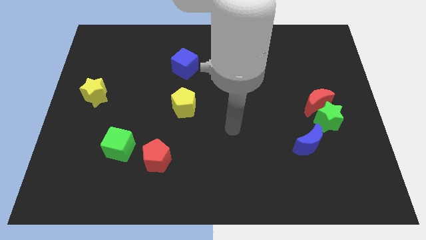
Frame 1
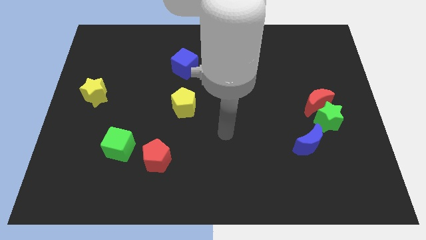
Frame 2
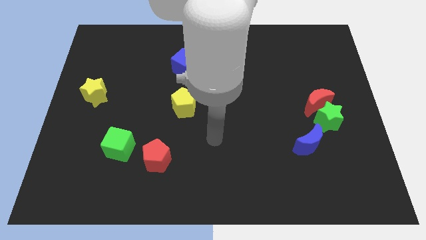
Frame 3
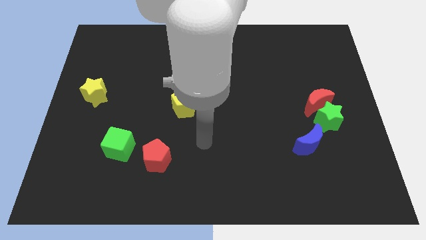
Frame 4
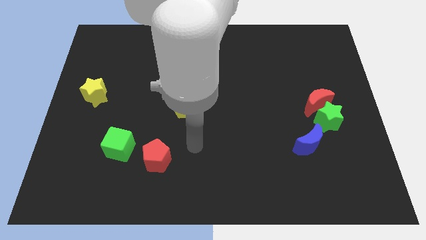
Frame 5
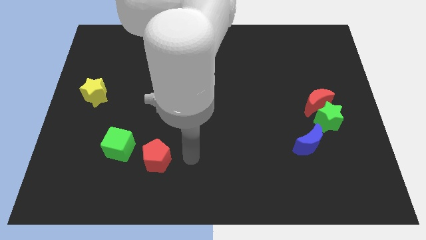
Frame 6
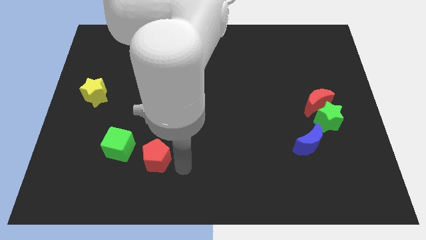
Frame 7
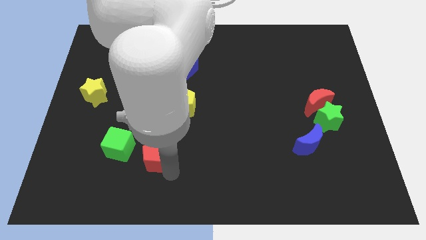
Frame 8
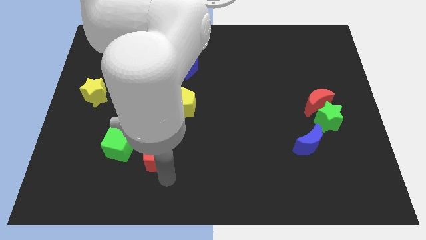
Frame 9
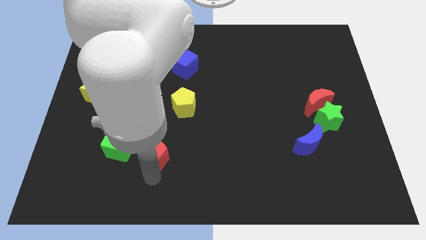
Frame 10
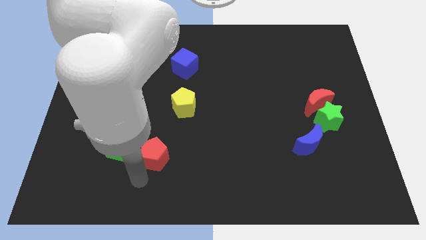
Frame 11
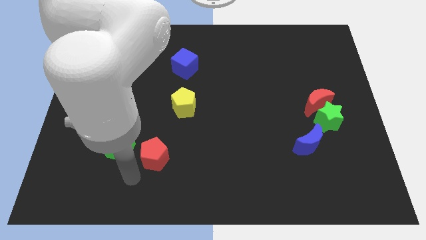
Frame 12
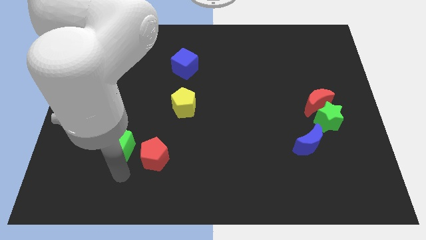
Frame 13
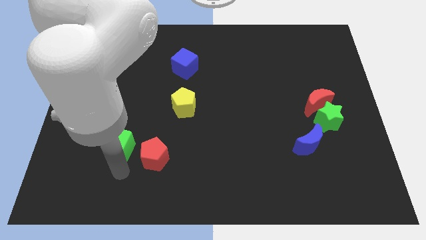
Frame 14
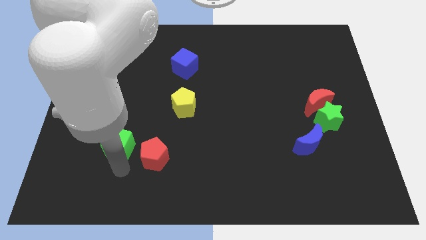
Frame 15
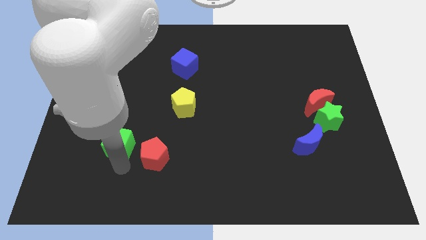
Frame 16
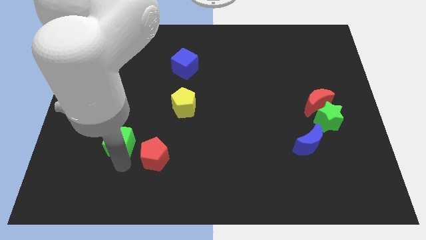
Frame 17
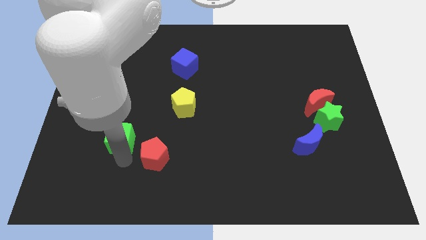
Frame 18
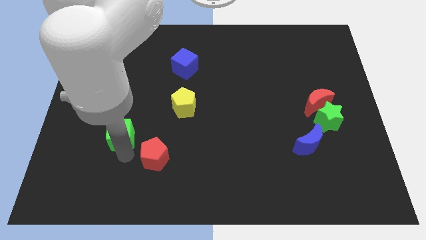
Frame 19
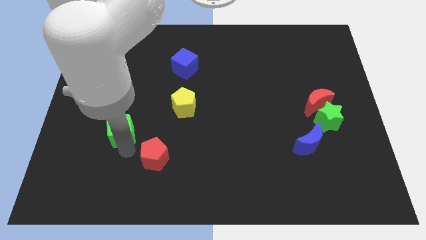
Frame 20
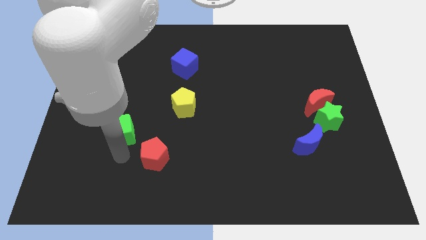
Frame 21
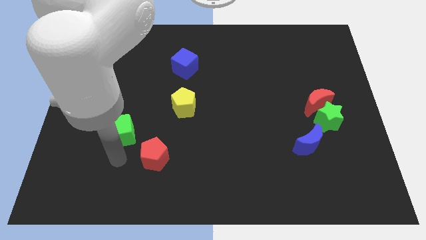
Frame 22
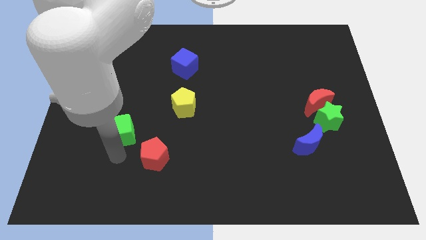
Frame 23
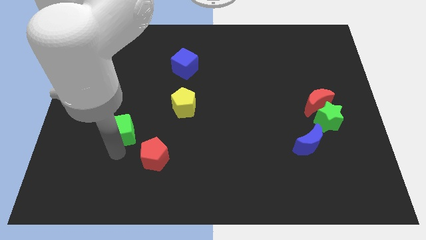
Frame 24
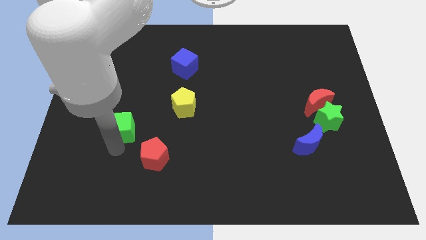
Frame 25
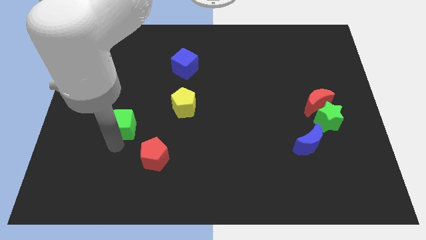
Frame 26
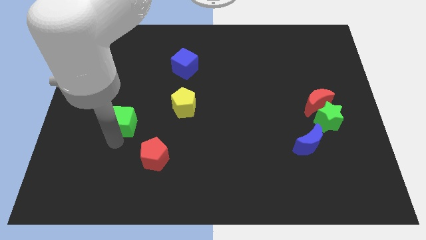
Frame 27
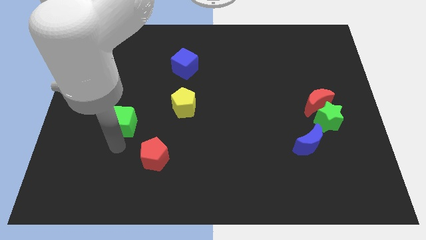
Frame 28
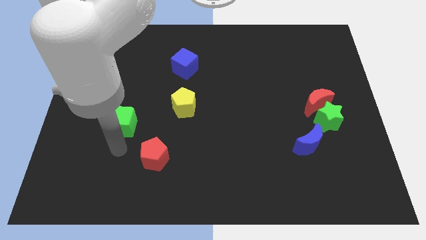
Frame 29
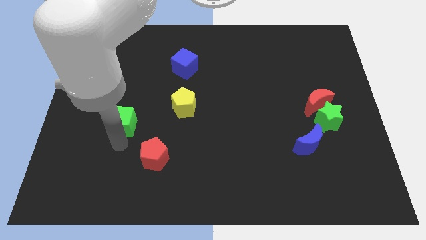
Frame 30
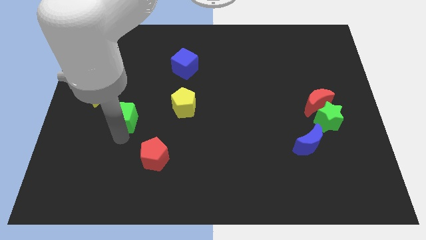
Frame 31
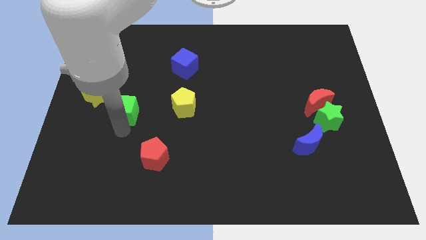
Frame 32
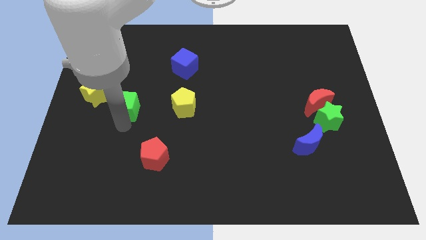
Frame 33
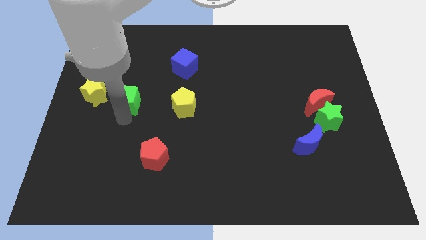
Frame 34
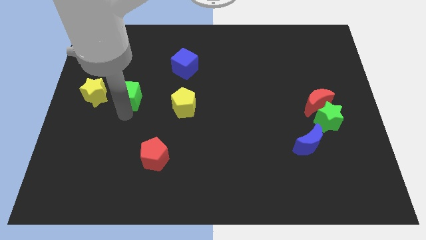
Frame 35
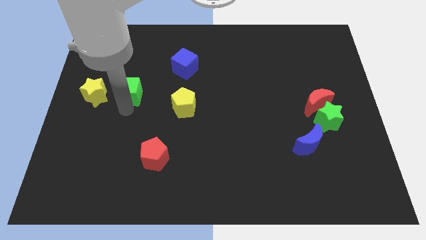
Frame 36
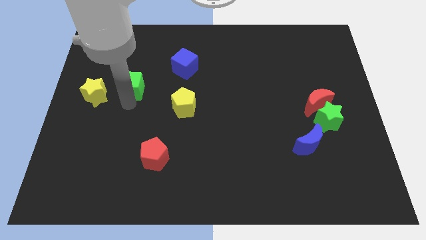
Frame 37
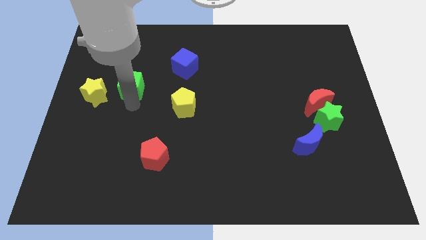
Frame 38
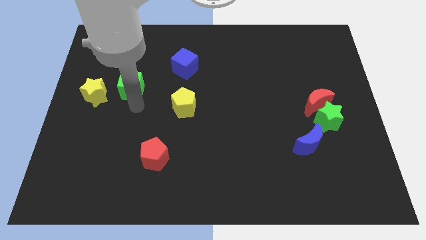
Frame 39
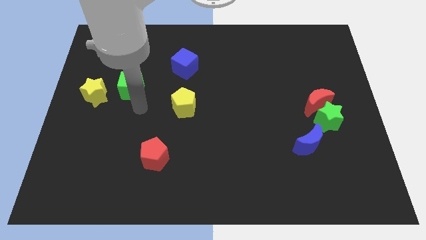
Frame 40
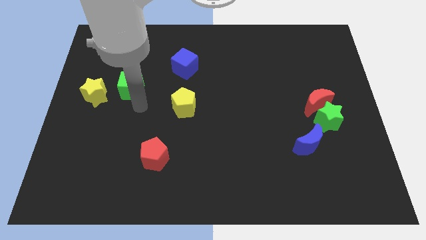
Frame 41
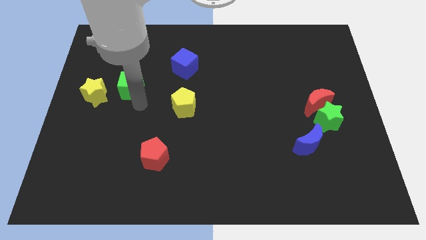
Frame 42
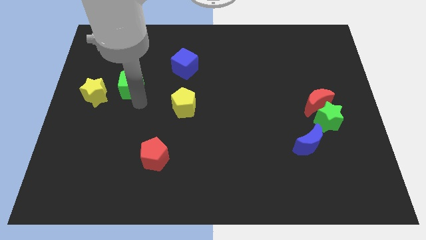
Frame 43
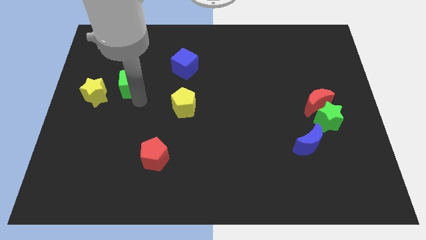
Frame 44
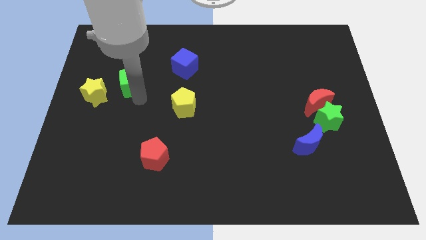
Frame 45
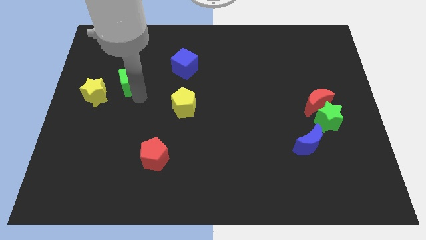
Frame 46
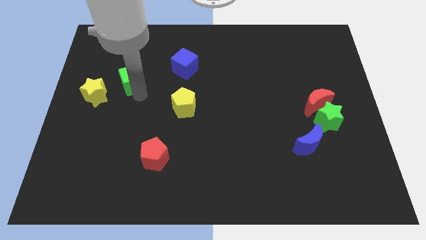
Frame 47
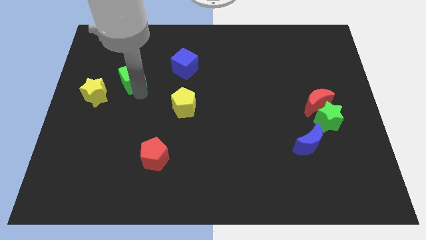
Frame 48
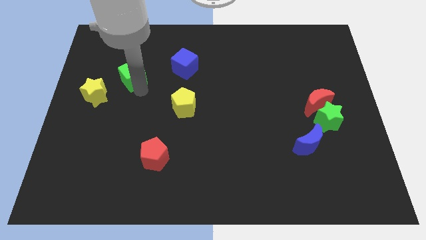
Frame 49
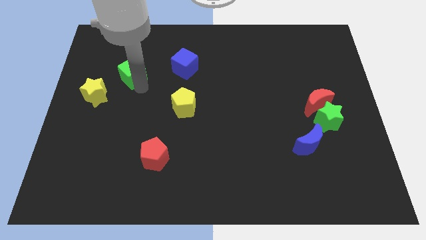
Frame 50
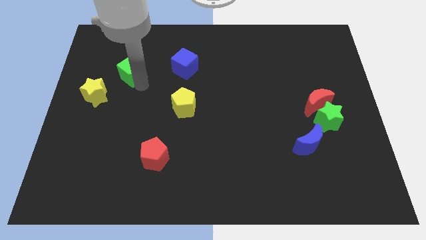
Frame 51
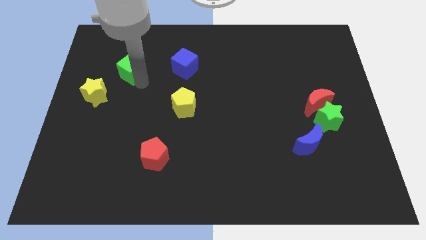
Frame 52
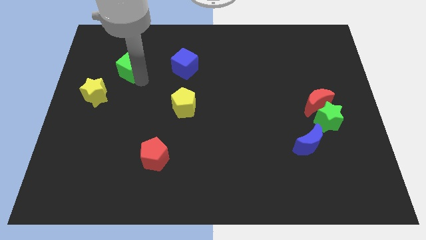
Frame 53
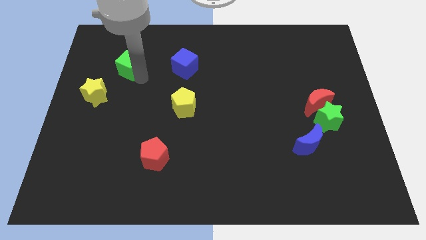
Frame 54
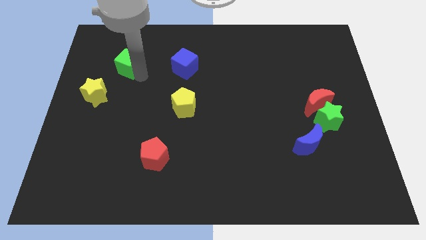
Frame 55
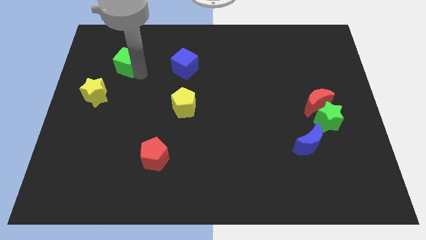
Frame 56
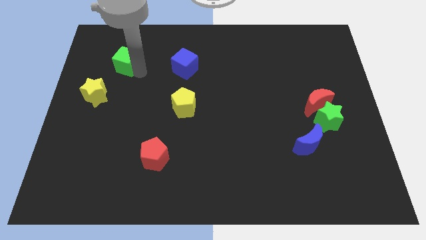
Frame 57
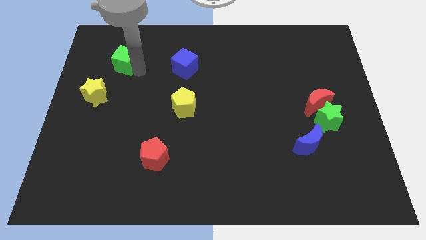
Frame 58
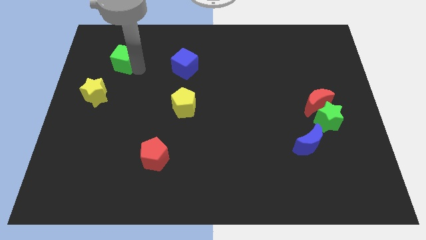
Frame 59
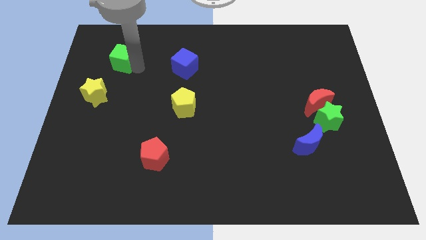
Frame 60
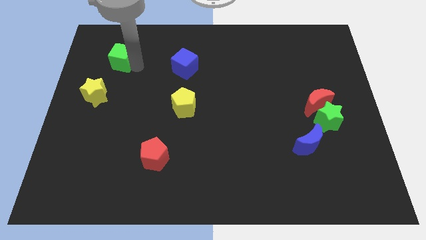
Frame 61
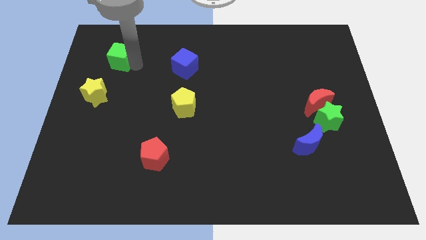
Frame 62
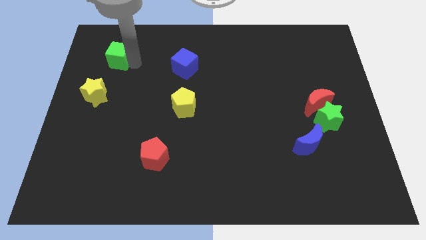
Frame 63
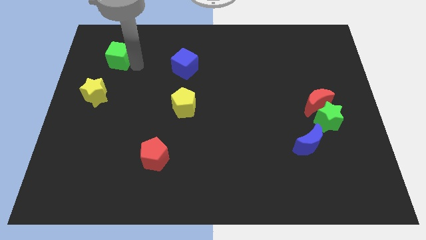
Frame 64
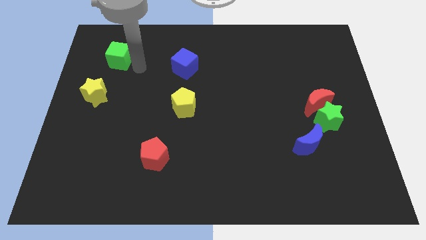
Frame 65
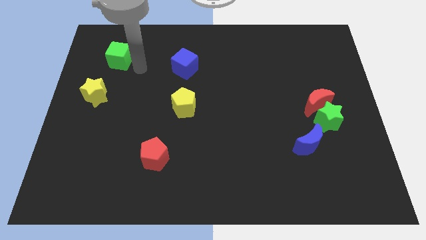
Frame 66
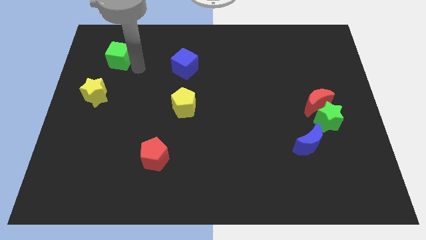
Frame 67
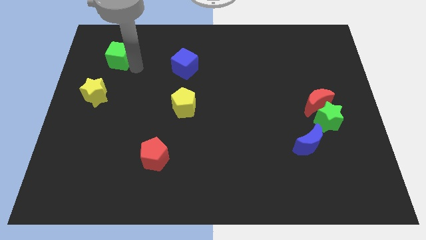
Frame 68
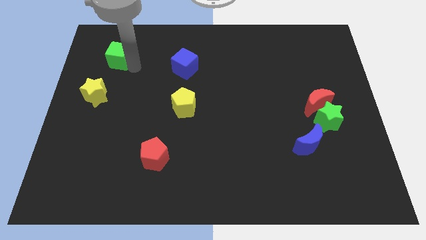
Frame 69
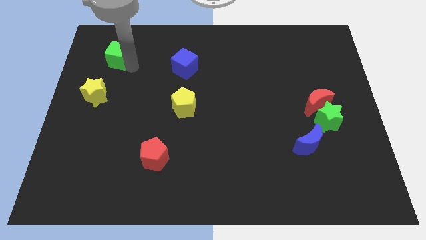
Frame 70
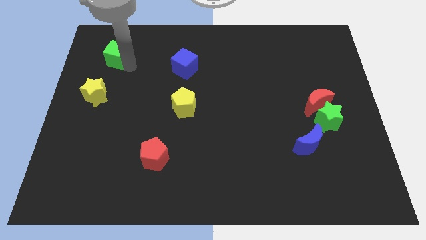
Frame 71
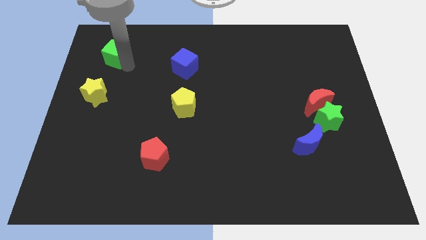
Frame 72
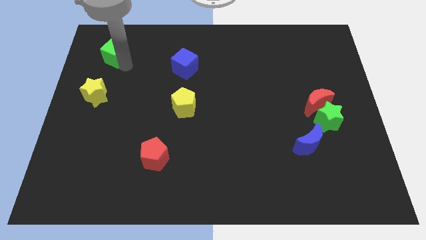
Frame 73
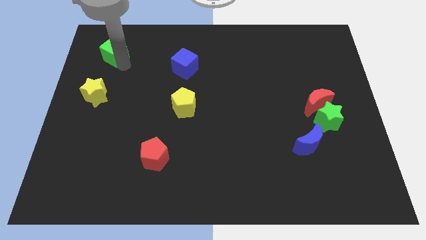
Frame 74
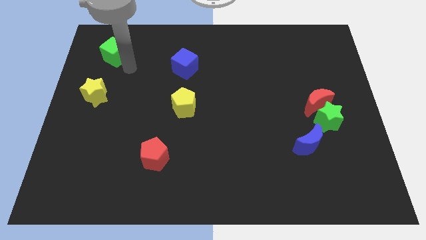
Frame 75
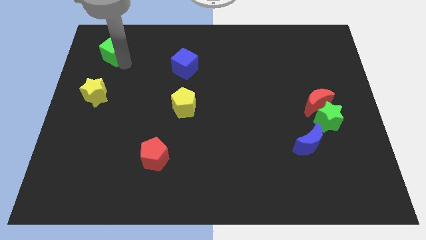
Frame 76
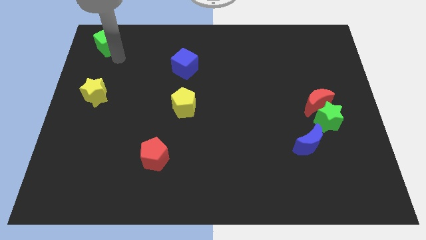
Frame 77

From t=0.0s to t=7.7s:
push the green cube to the top left corner
